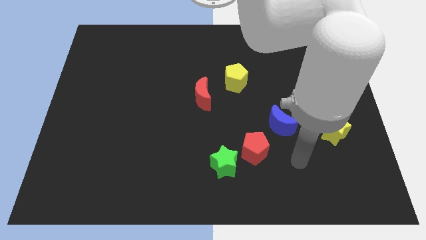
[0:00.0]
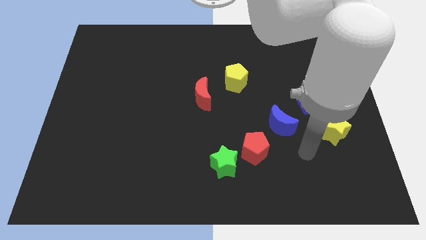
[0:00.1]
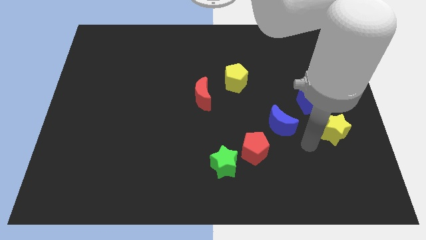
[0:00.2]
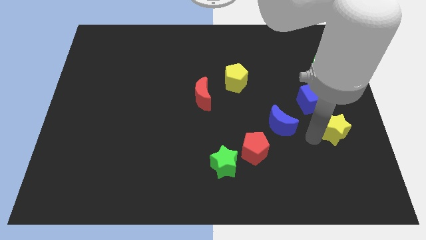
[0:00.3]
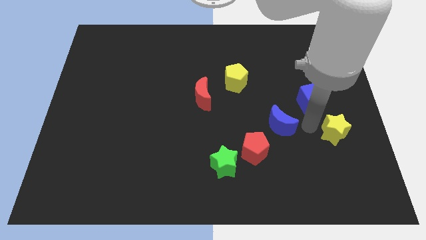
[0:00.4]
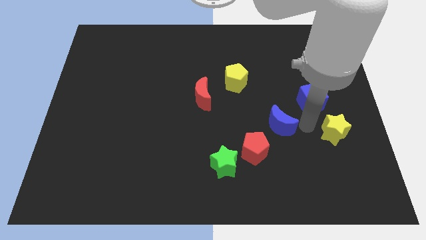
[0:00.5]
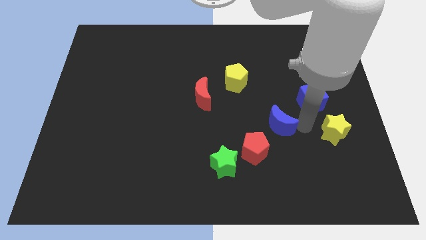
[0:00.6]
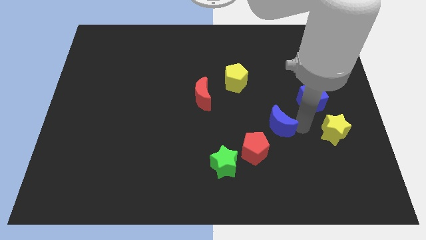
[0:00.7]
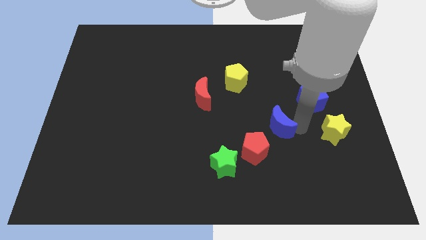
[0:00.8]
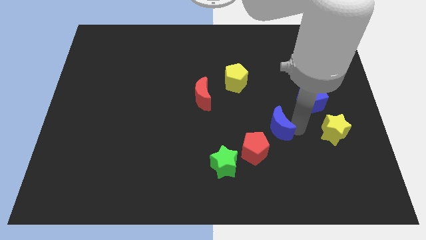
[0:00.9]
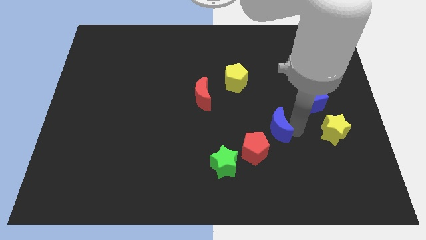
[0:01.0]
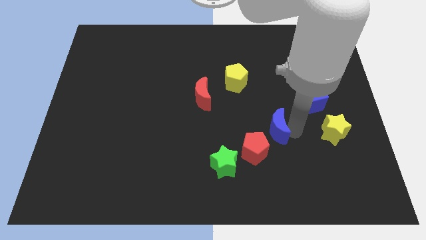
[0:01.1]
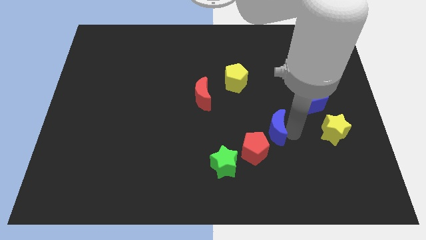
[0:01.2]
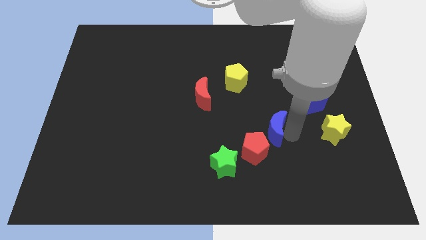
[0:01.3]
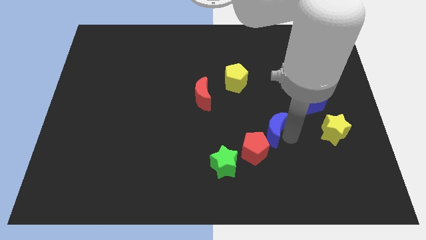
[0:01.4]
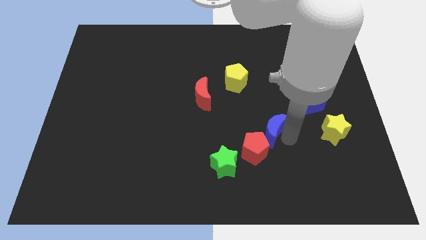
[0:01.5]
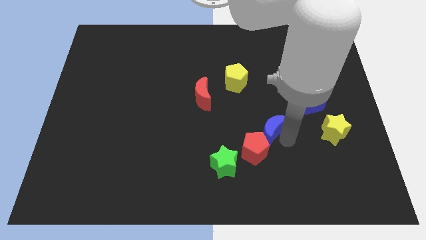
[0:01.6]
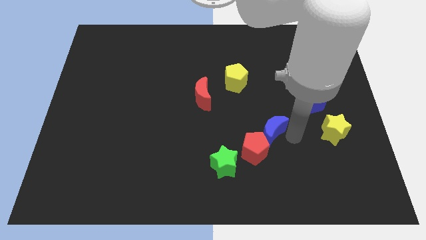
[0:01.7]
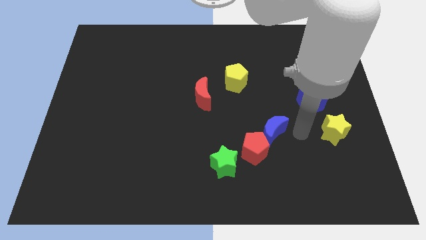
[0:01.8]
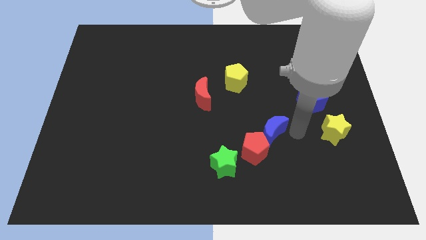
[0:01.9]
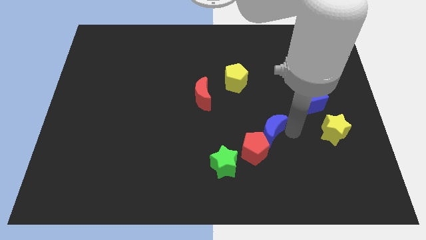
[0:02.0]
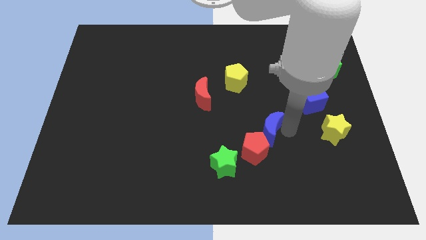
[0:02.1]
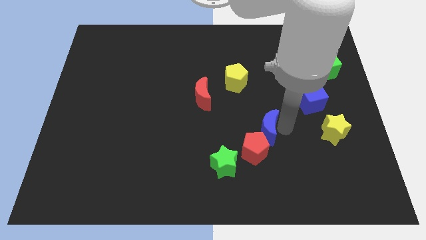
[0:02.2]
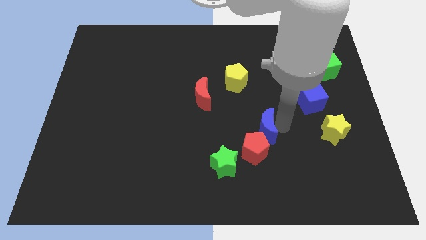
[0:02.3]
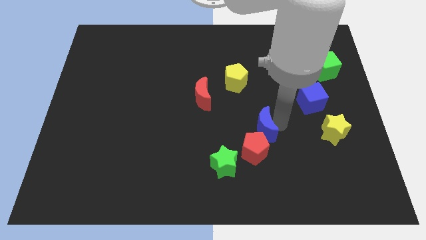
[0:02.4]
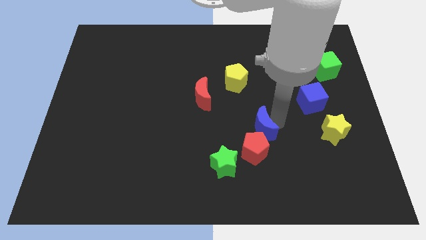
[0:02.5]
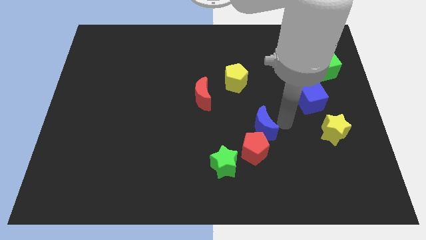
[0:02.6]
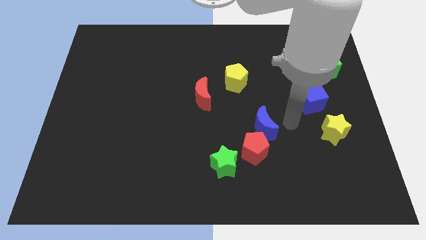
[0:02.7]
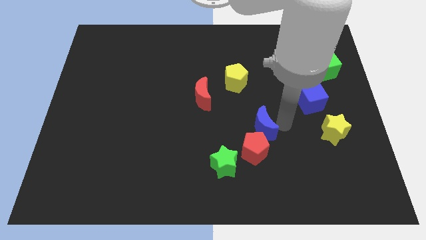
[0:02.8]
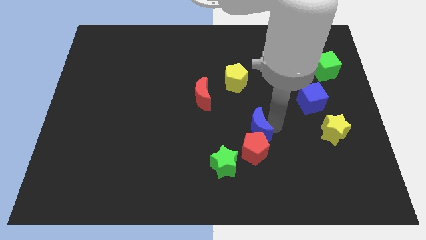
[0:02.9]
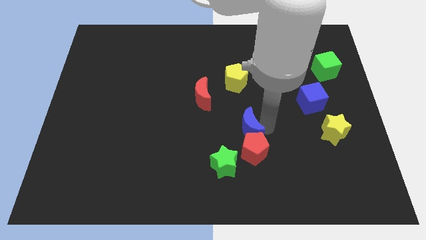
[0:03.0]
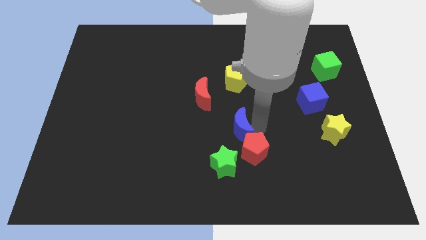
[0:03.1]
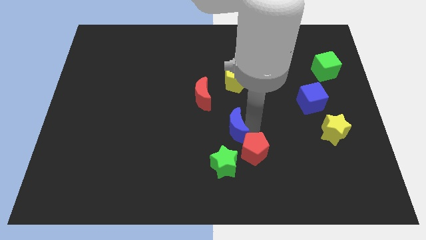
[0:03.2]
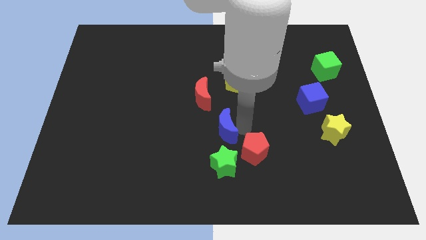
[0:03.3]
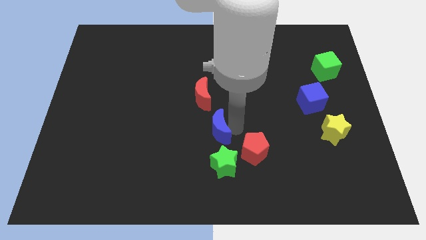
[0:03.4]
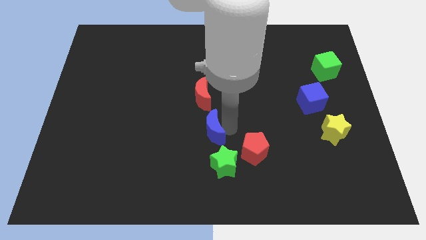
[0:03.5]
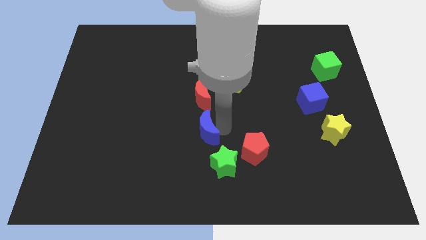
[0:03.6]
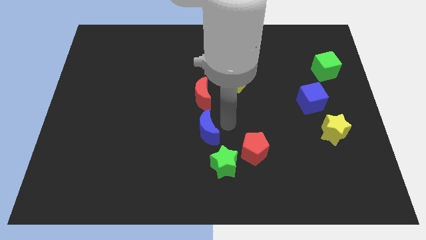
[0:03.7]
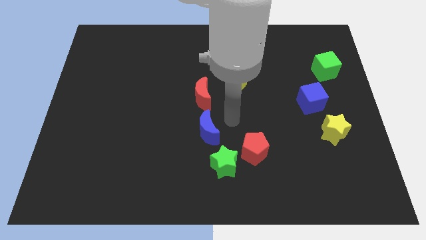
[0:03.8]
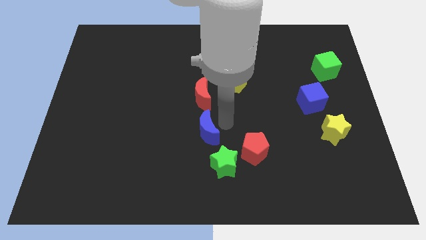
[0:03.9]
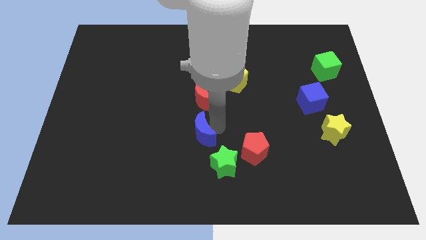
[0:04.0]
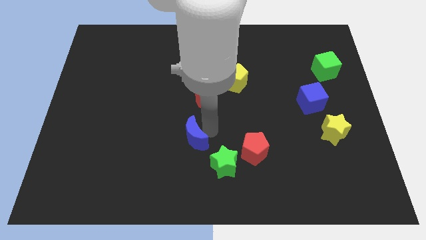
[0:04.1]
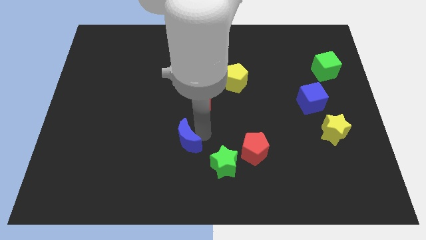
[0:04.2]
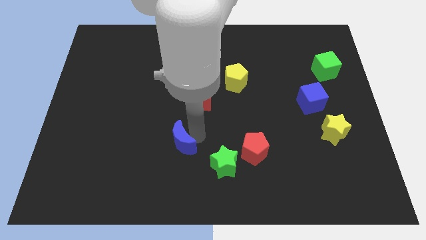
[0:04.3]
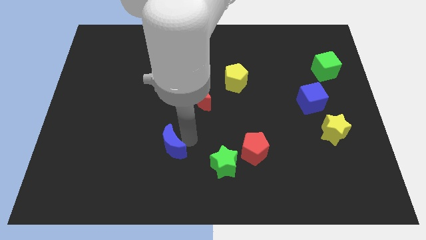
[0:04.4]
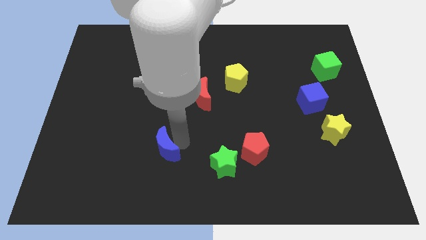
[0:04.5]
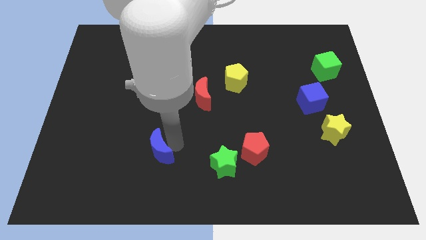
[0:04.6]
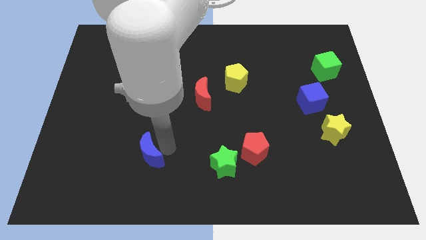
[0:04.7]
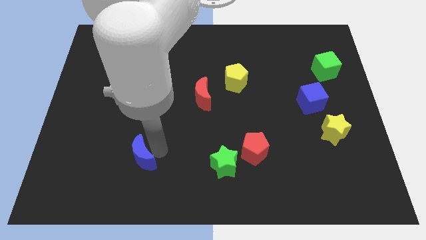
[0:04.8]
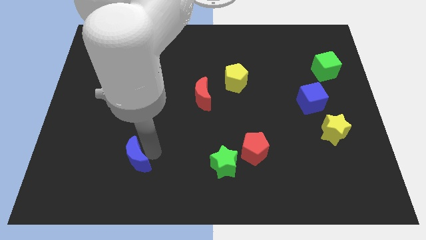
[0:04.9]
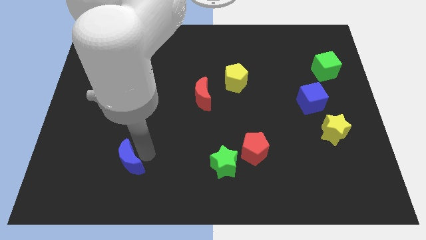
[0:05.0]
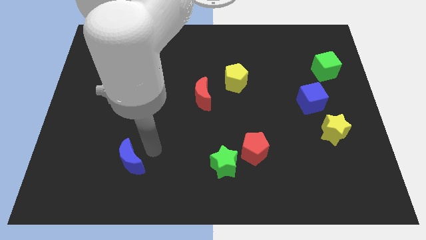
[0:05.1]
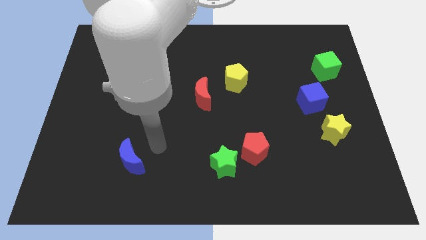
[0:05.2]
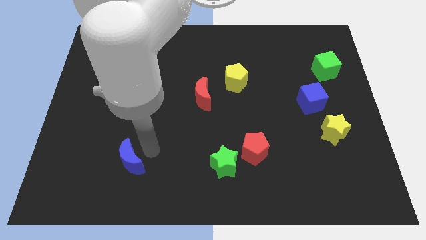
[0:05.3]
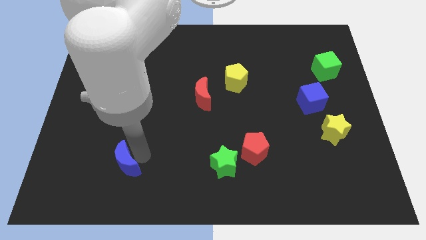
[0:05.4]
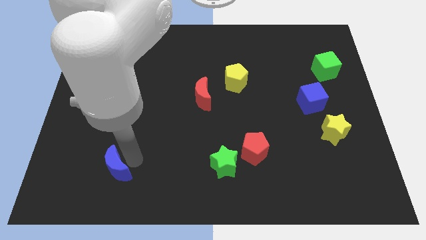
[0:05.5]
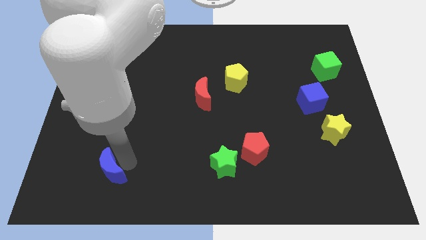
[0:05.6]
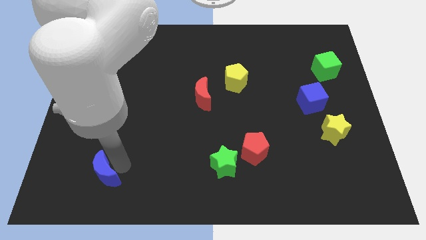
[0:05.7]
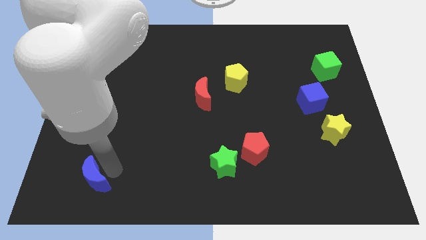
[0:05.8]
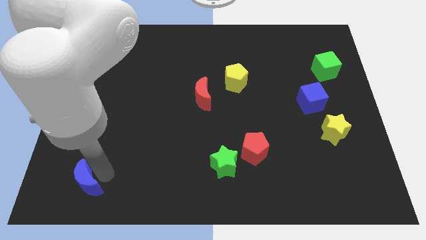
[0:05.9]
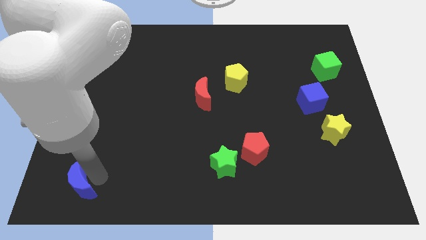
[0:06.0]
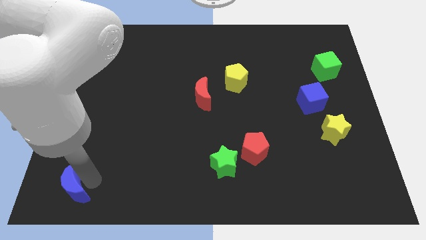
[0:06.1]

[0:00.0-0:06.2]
push the blue moon to the bottom left

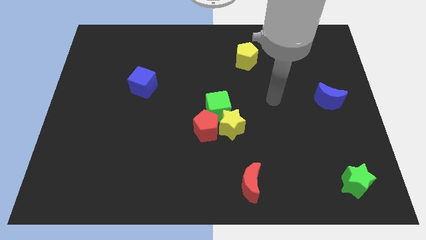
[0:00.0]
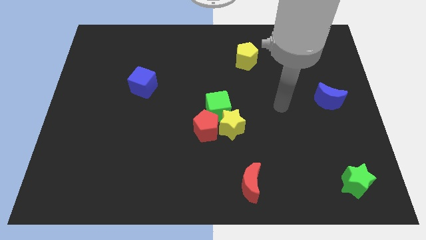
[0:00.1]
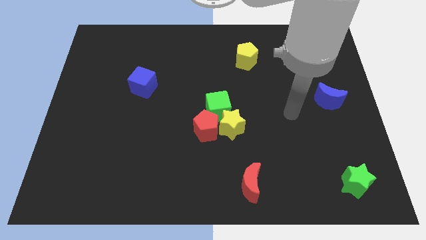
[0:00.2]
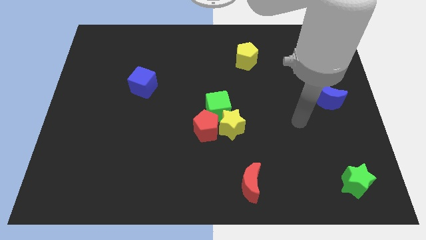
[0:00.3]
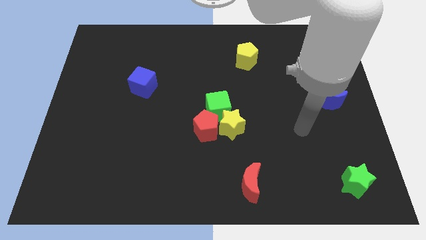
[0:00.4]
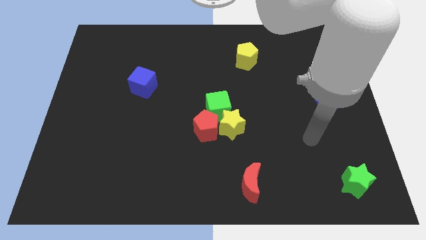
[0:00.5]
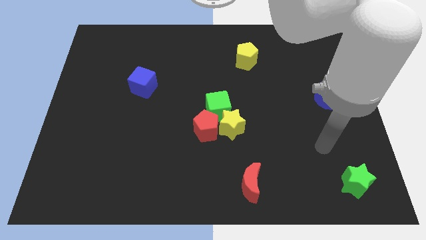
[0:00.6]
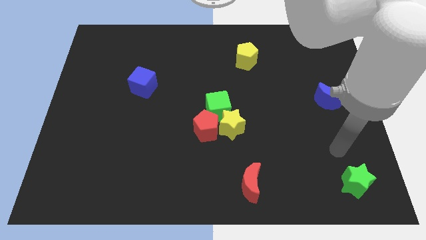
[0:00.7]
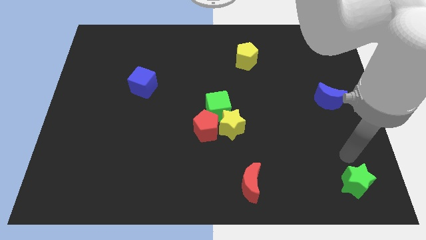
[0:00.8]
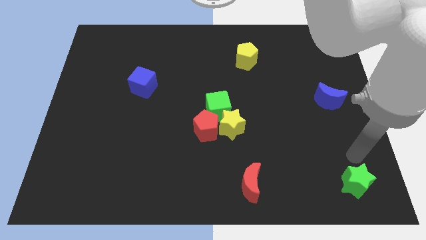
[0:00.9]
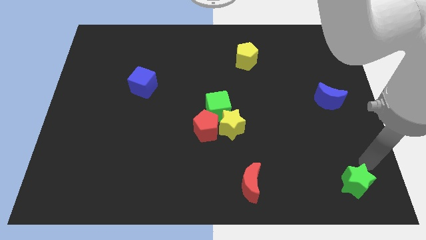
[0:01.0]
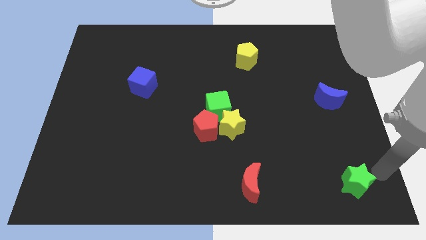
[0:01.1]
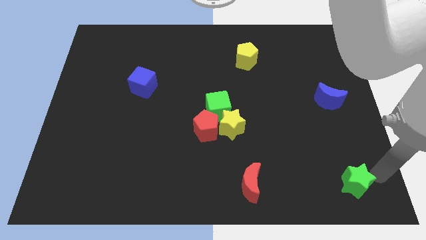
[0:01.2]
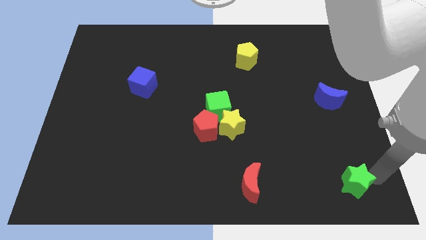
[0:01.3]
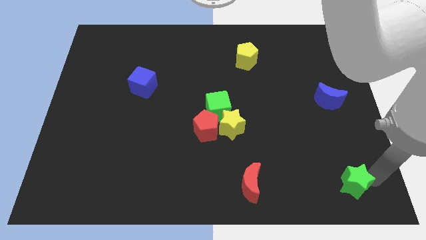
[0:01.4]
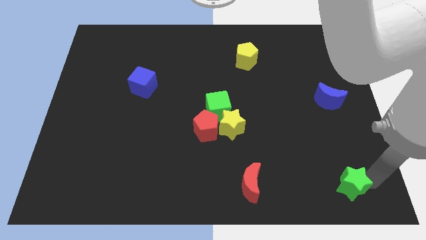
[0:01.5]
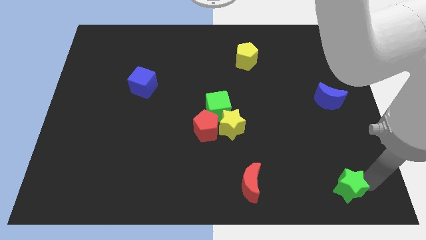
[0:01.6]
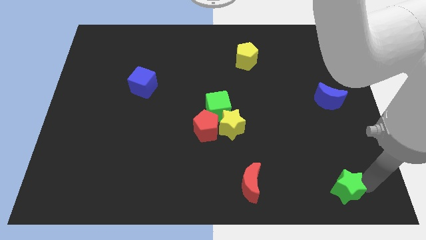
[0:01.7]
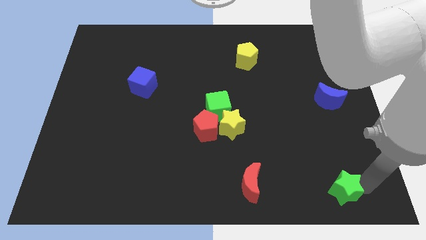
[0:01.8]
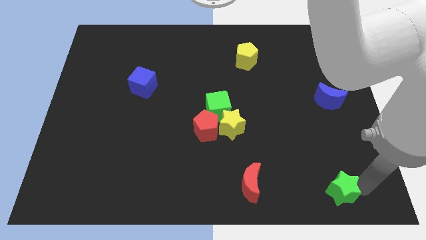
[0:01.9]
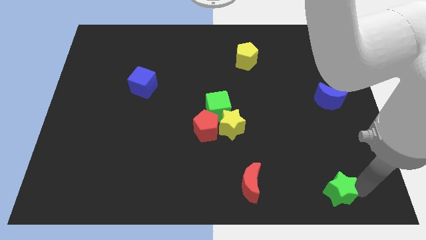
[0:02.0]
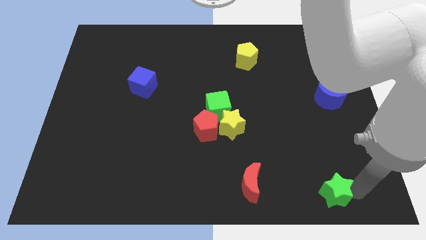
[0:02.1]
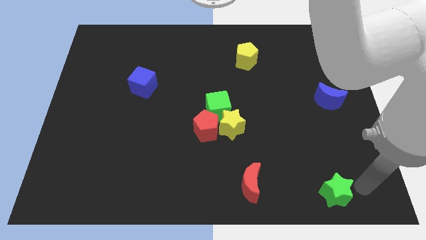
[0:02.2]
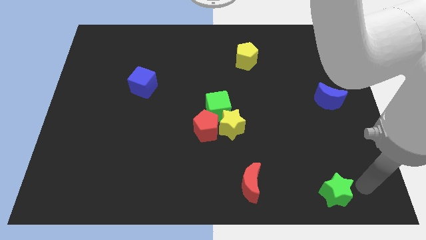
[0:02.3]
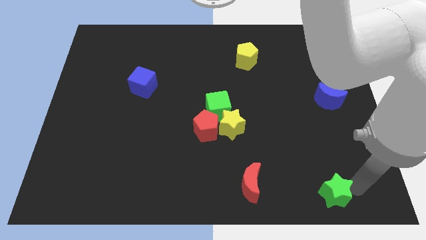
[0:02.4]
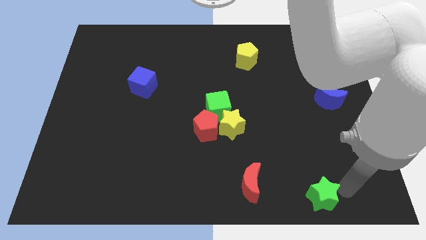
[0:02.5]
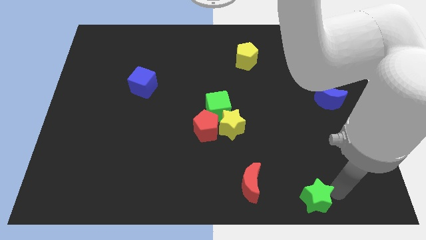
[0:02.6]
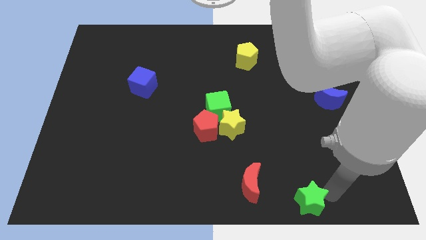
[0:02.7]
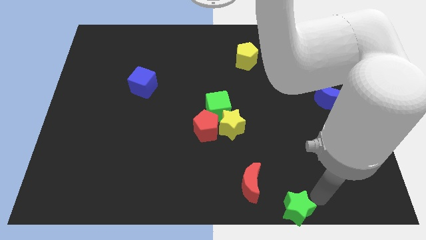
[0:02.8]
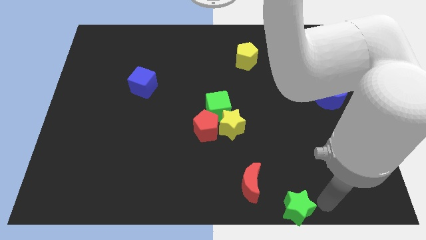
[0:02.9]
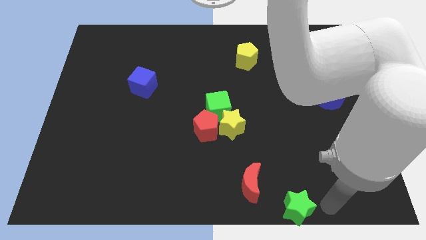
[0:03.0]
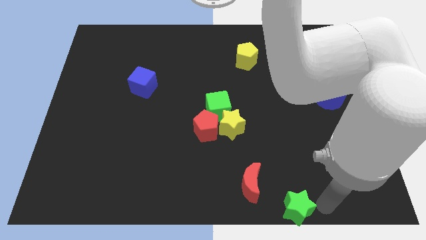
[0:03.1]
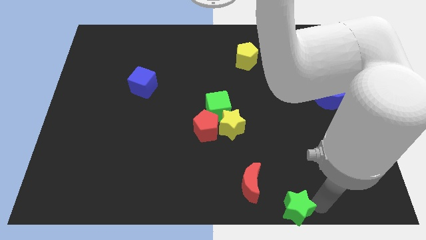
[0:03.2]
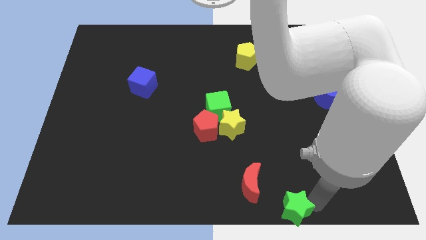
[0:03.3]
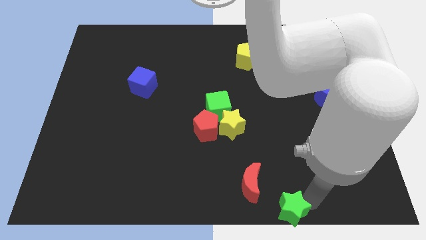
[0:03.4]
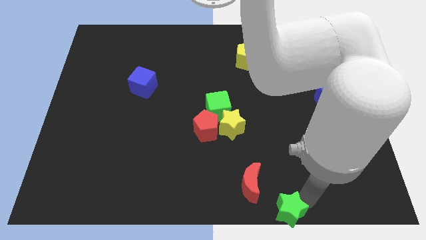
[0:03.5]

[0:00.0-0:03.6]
put the green star to the bottom side
